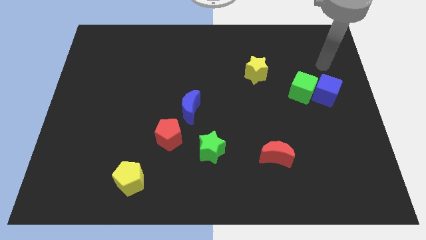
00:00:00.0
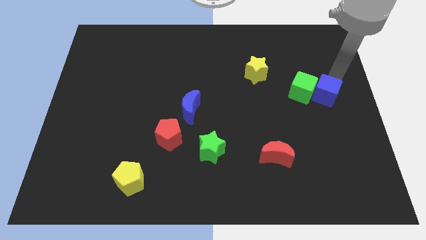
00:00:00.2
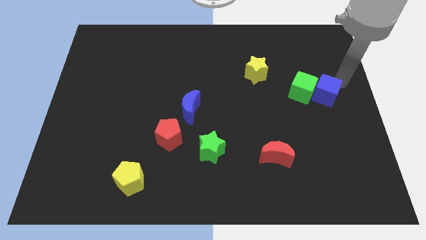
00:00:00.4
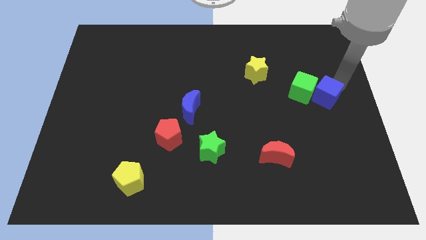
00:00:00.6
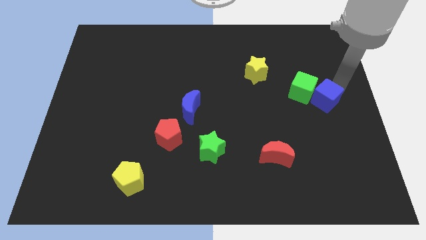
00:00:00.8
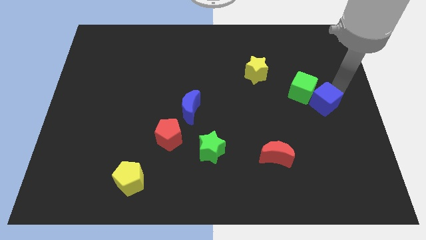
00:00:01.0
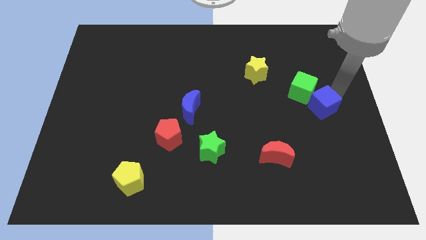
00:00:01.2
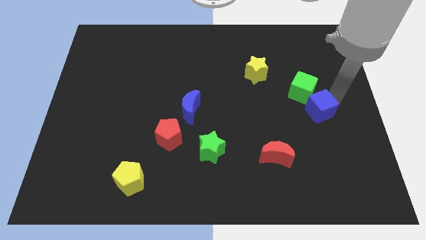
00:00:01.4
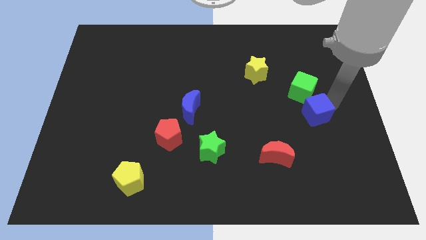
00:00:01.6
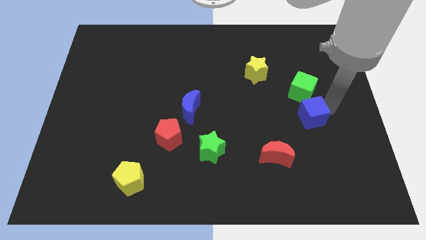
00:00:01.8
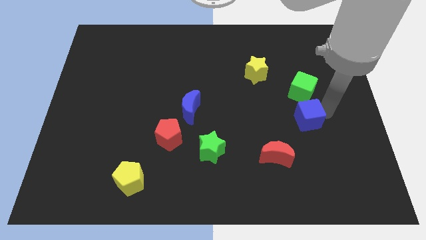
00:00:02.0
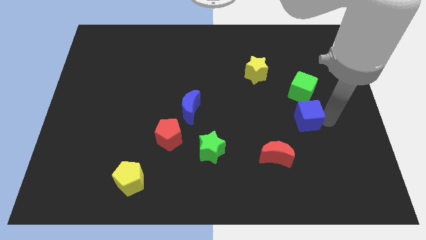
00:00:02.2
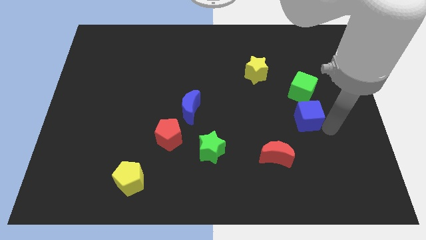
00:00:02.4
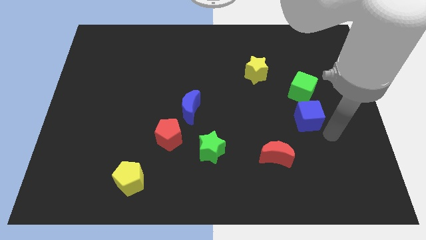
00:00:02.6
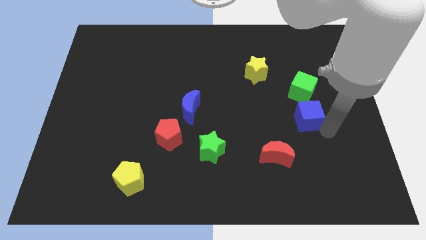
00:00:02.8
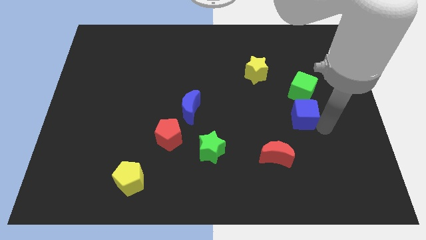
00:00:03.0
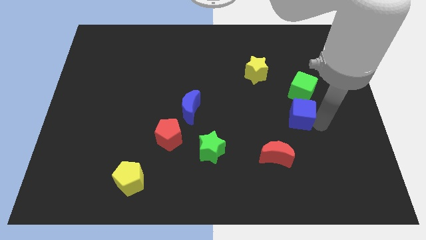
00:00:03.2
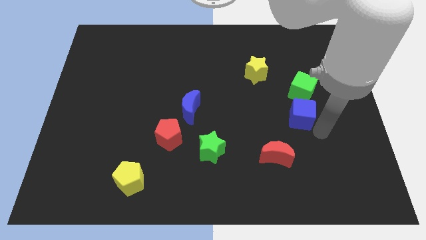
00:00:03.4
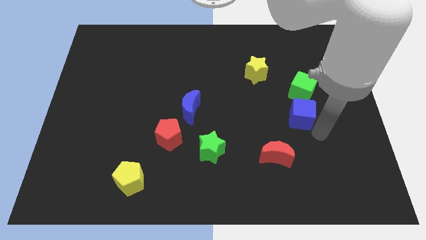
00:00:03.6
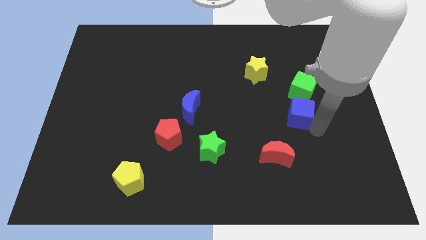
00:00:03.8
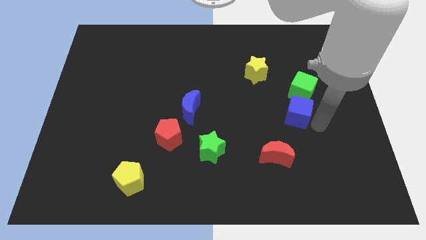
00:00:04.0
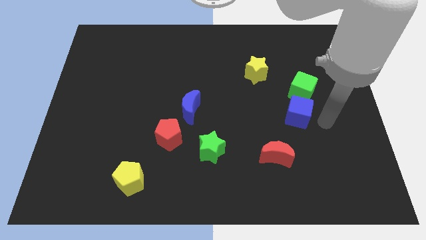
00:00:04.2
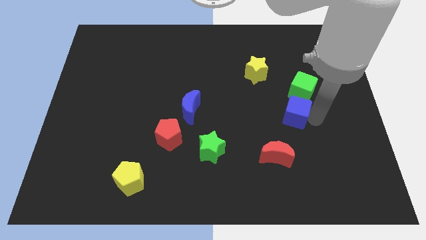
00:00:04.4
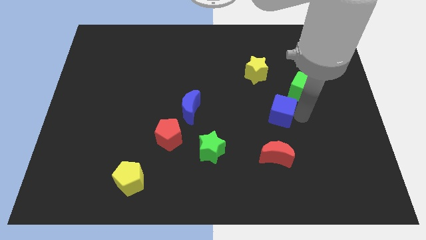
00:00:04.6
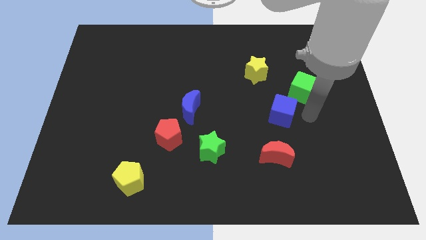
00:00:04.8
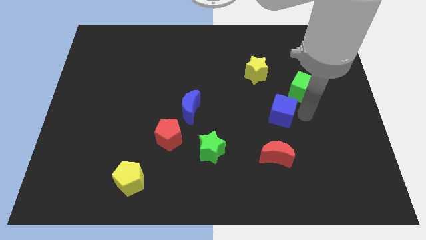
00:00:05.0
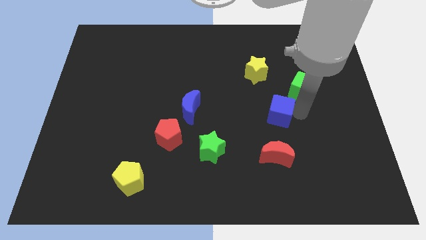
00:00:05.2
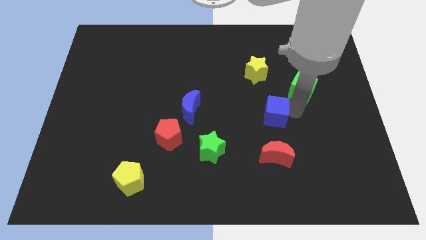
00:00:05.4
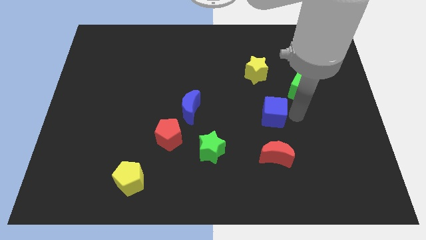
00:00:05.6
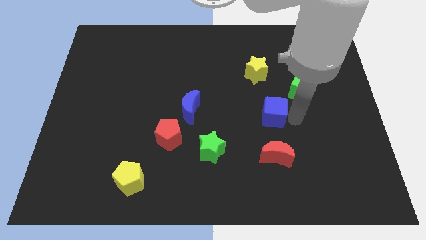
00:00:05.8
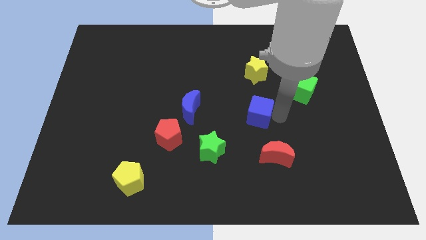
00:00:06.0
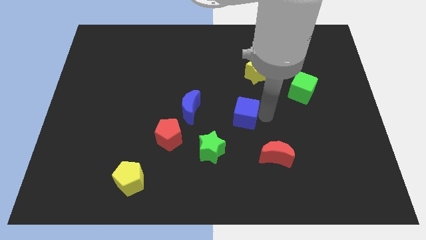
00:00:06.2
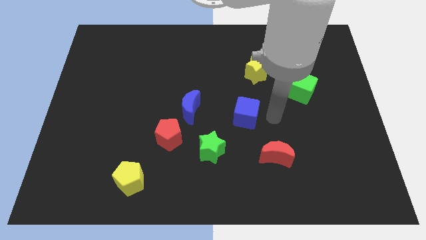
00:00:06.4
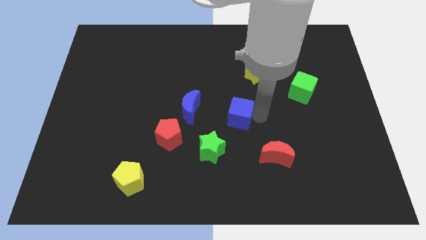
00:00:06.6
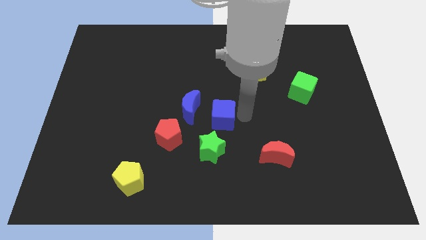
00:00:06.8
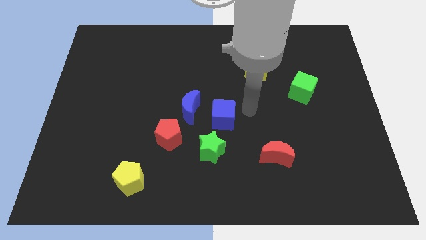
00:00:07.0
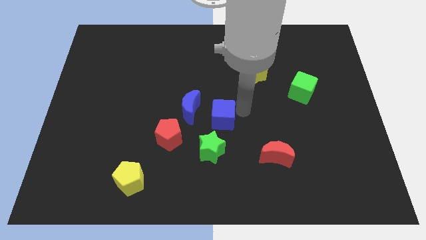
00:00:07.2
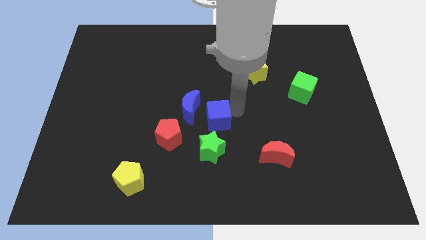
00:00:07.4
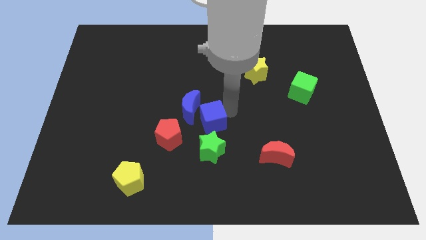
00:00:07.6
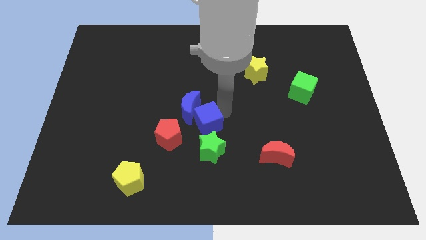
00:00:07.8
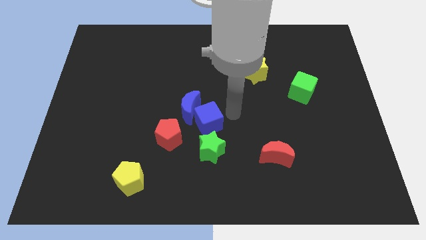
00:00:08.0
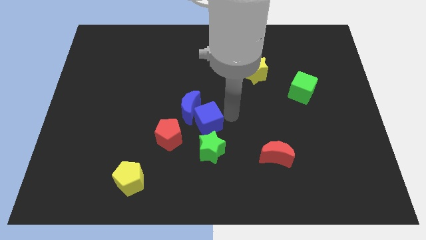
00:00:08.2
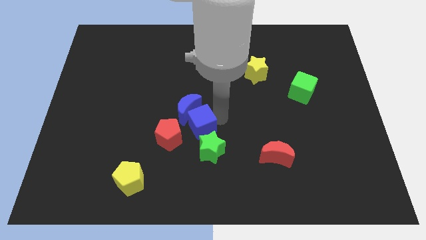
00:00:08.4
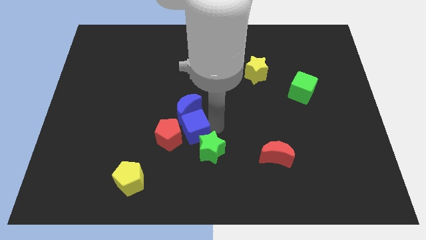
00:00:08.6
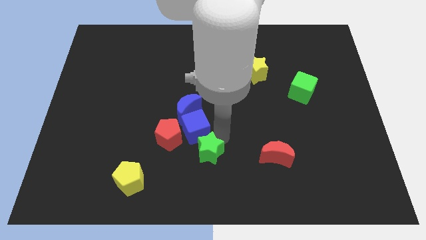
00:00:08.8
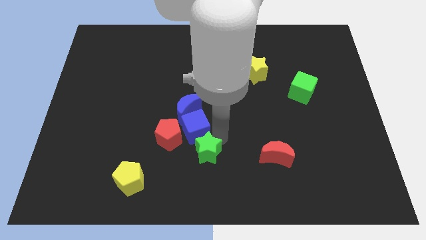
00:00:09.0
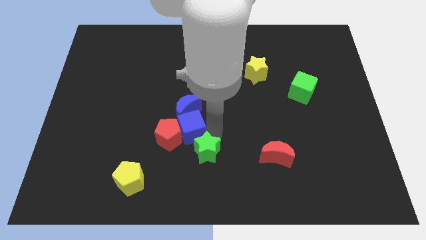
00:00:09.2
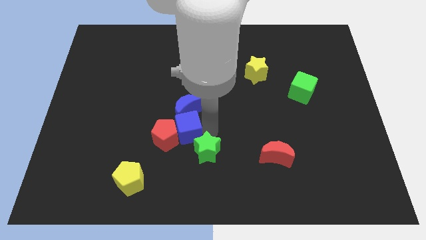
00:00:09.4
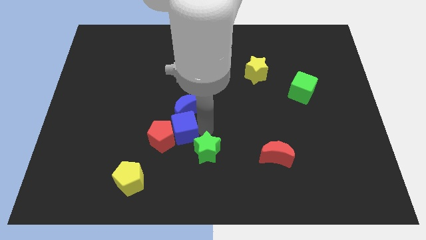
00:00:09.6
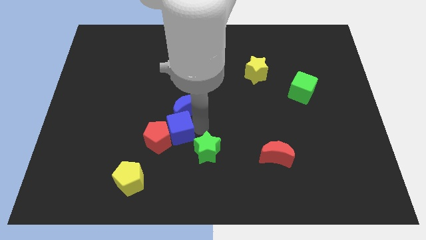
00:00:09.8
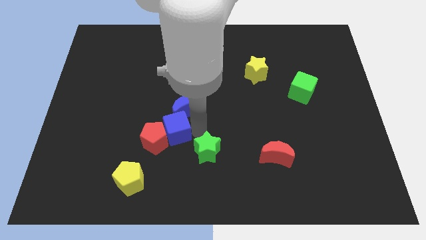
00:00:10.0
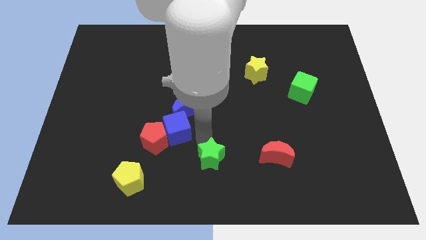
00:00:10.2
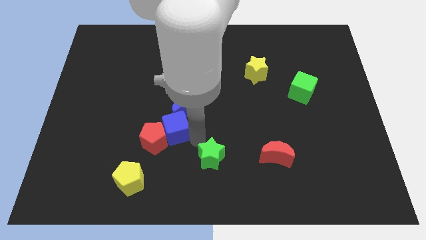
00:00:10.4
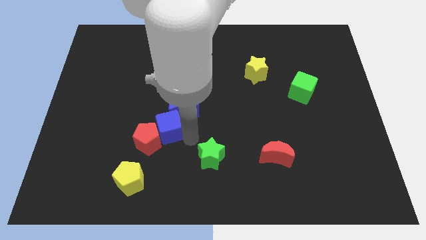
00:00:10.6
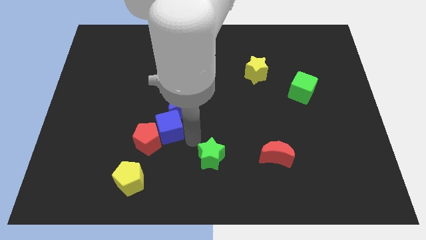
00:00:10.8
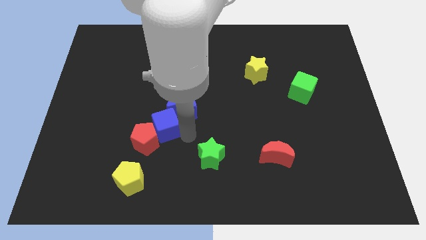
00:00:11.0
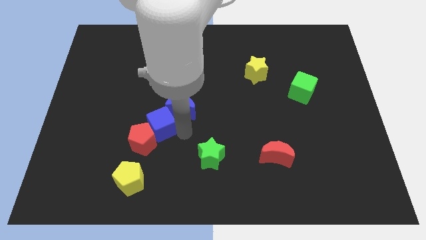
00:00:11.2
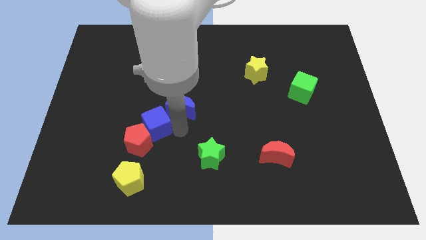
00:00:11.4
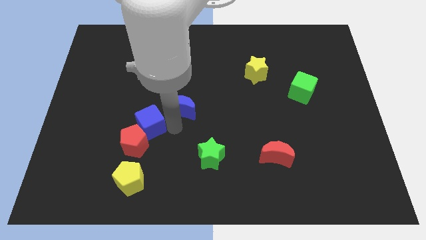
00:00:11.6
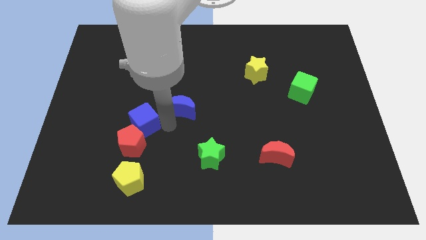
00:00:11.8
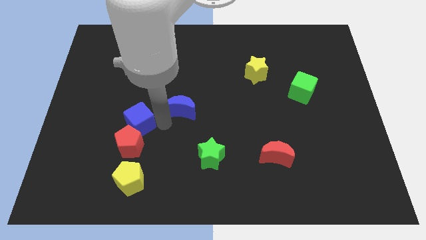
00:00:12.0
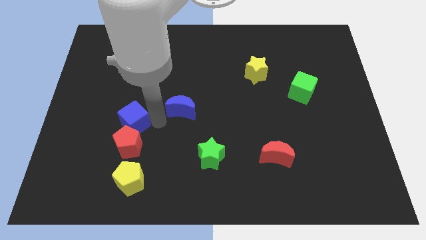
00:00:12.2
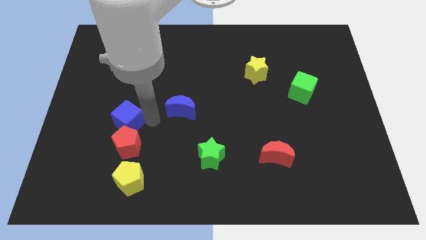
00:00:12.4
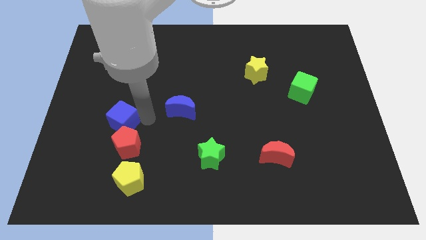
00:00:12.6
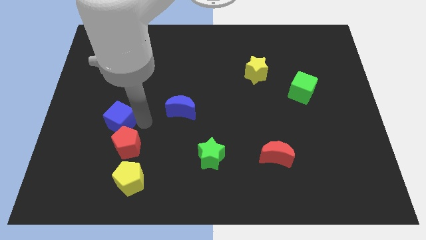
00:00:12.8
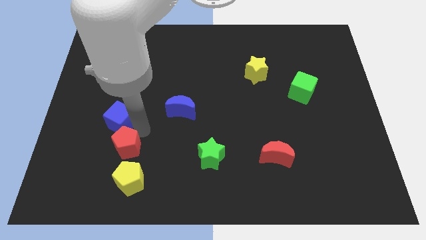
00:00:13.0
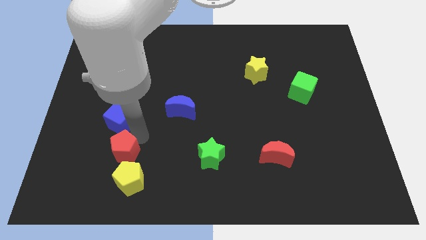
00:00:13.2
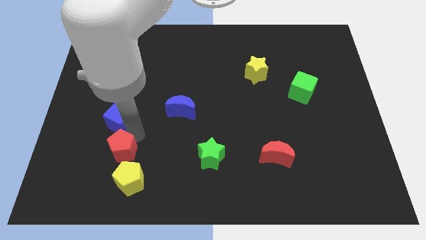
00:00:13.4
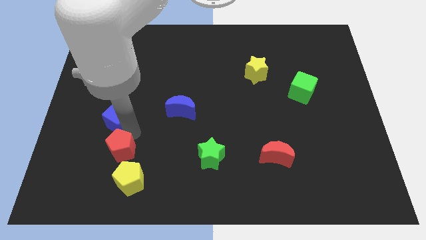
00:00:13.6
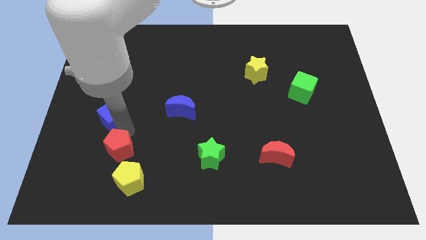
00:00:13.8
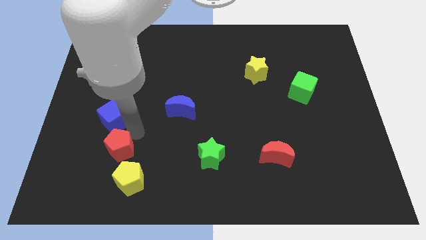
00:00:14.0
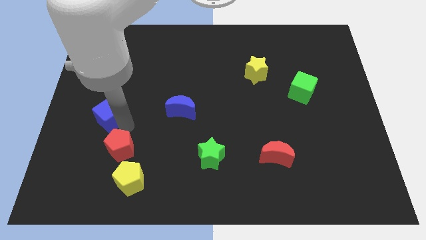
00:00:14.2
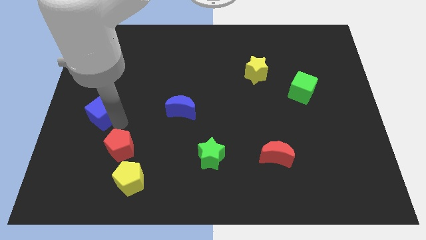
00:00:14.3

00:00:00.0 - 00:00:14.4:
put the blue cube to the left side of the board
